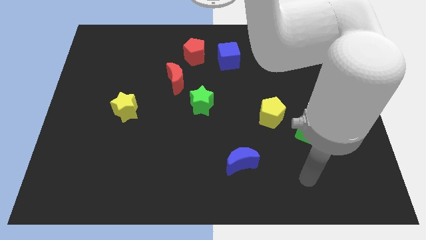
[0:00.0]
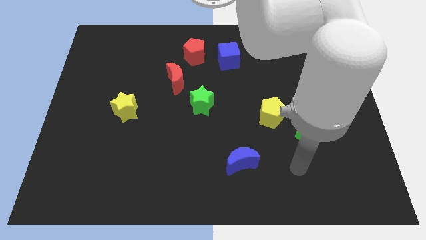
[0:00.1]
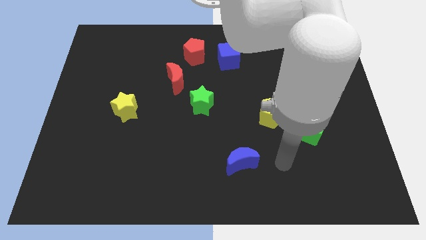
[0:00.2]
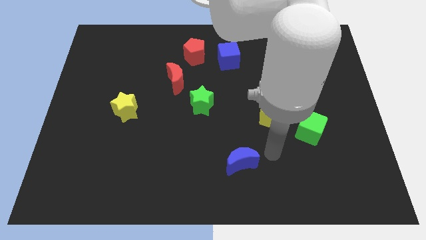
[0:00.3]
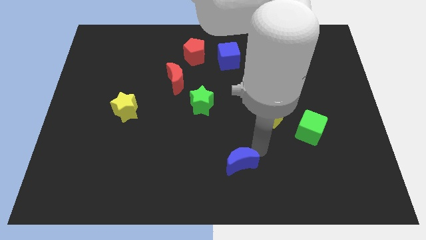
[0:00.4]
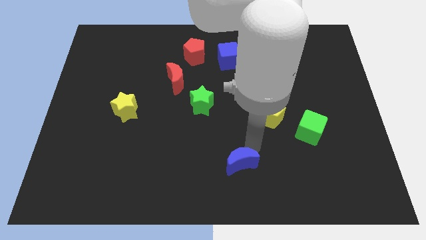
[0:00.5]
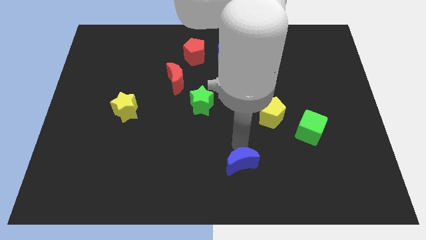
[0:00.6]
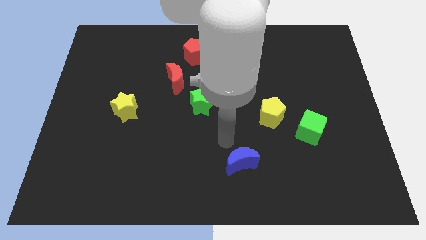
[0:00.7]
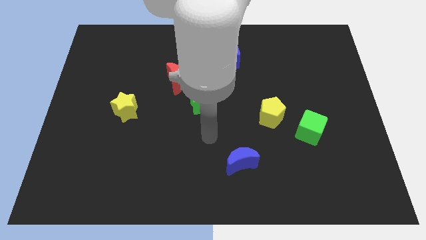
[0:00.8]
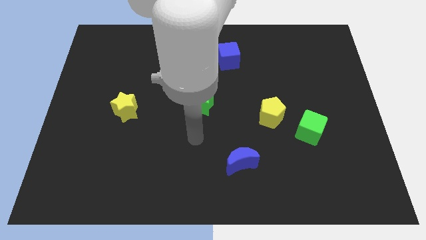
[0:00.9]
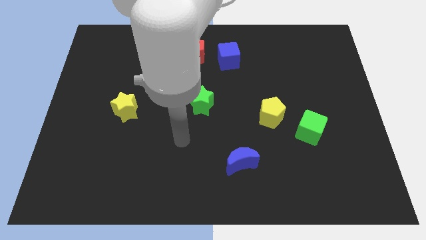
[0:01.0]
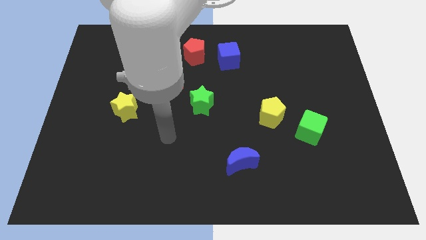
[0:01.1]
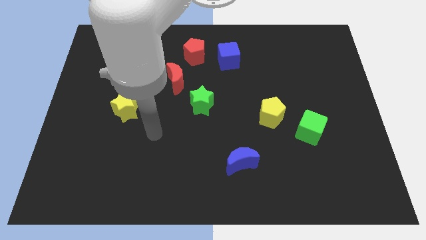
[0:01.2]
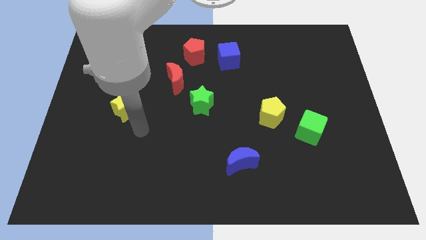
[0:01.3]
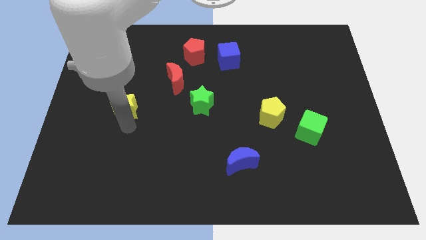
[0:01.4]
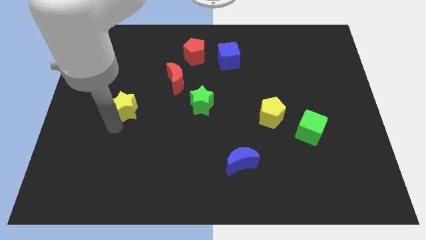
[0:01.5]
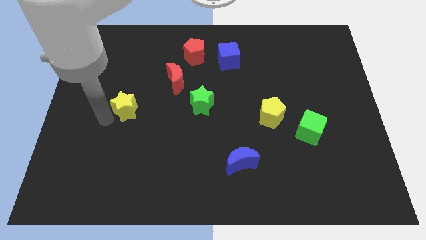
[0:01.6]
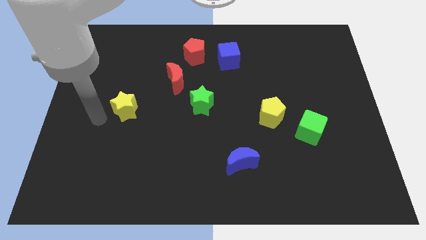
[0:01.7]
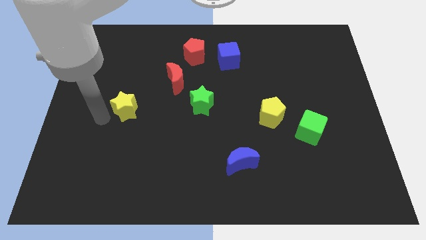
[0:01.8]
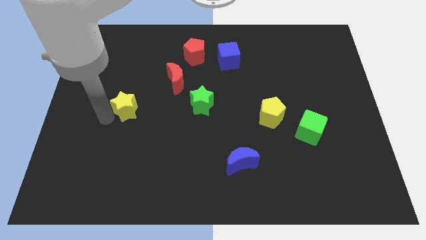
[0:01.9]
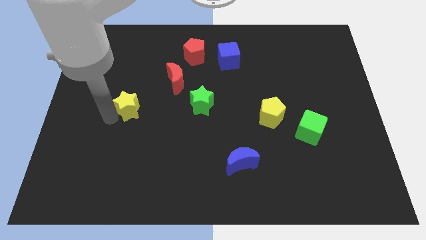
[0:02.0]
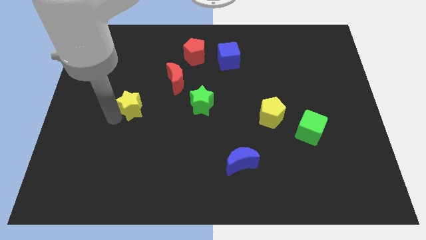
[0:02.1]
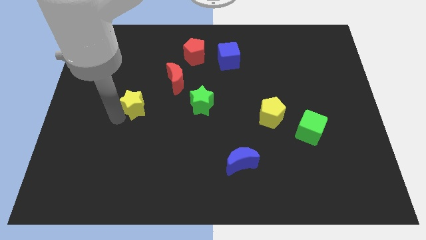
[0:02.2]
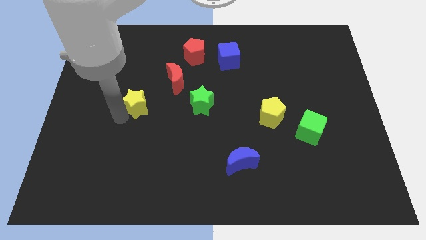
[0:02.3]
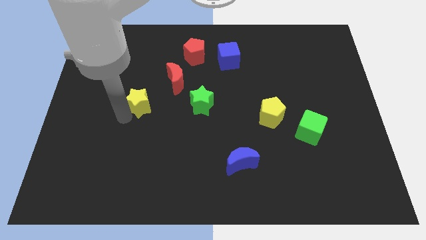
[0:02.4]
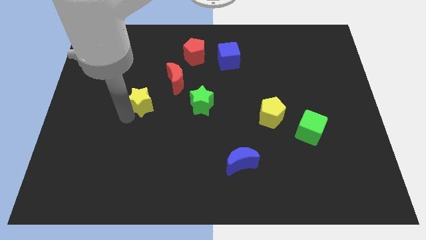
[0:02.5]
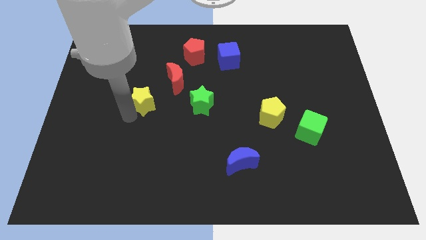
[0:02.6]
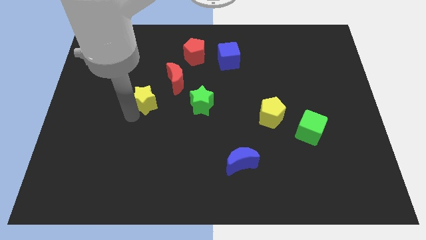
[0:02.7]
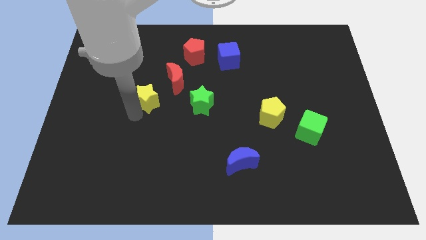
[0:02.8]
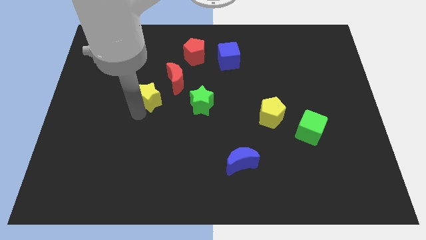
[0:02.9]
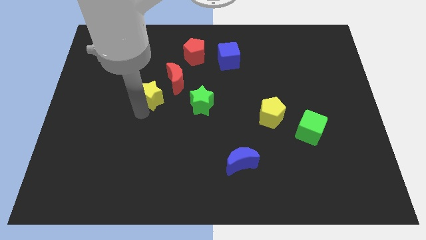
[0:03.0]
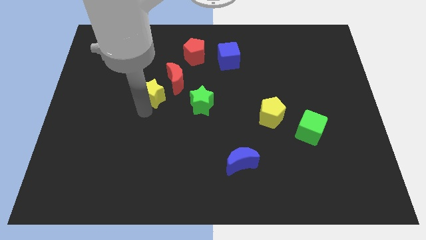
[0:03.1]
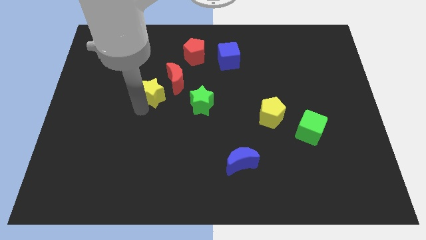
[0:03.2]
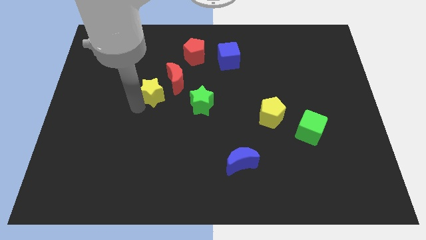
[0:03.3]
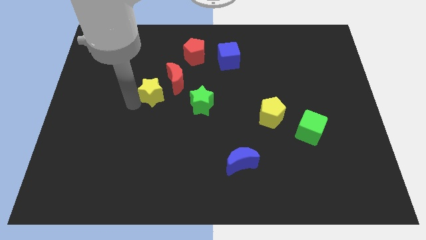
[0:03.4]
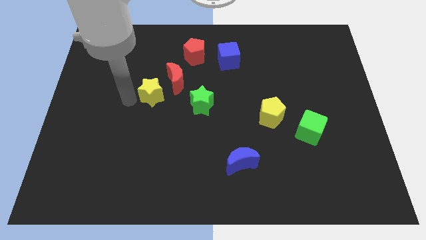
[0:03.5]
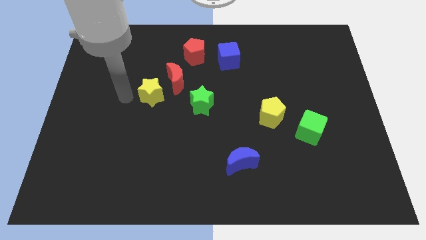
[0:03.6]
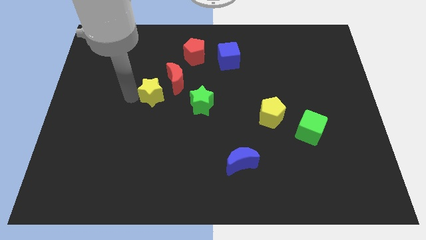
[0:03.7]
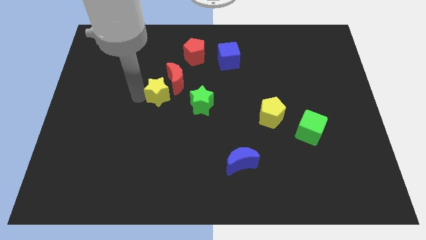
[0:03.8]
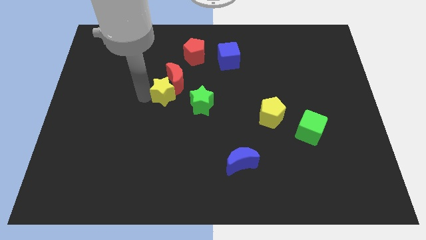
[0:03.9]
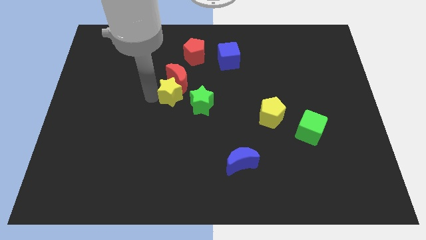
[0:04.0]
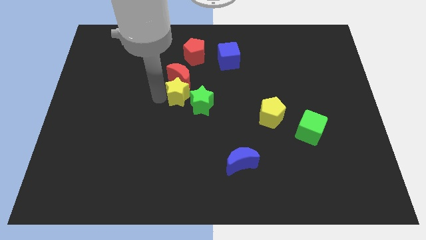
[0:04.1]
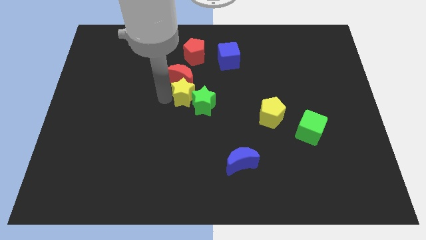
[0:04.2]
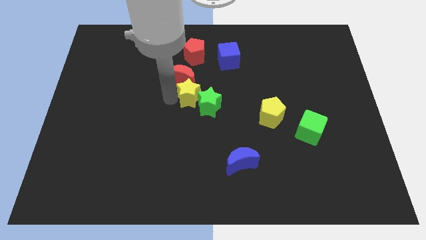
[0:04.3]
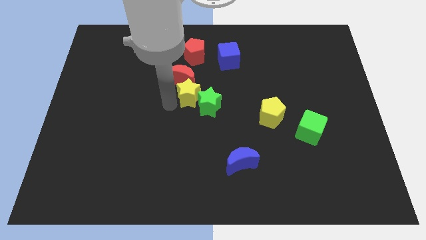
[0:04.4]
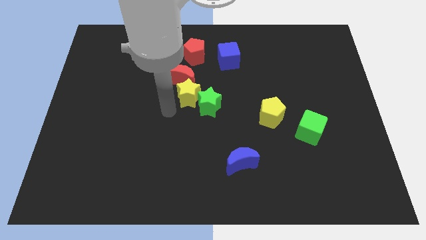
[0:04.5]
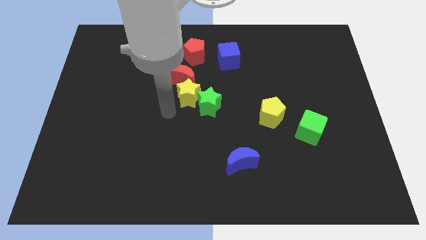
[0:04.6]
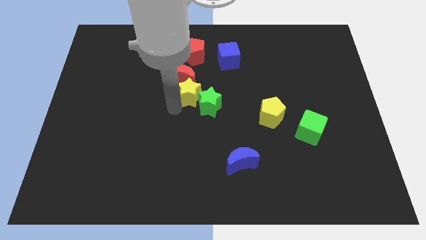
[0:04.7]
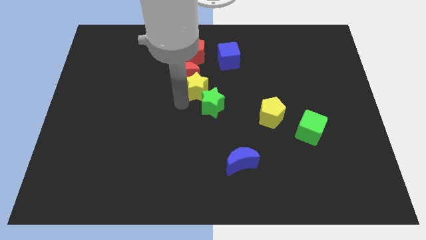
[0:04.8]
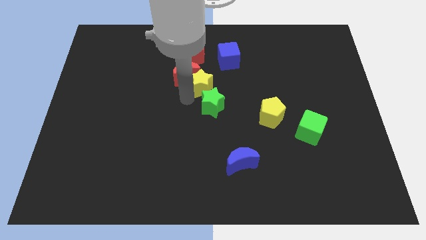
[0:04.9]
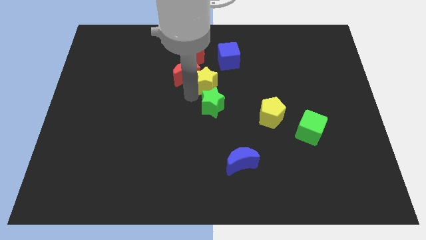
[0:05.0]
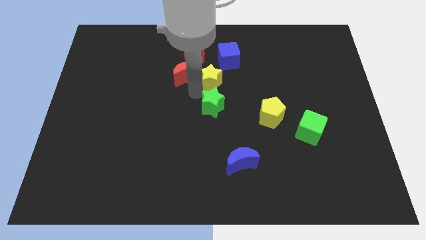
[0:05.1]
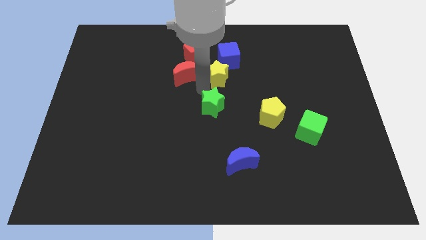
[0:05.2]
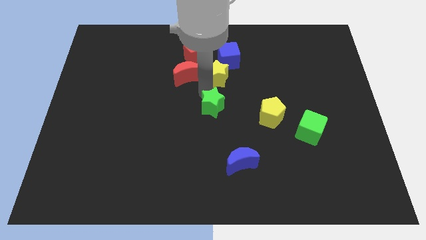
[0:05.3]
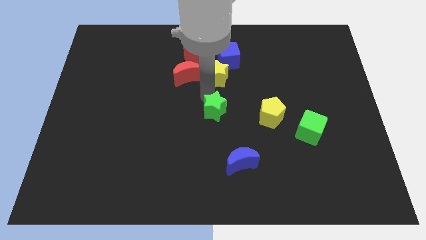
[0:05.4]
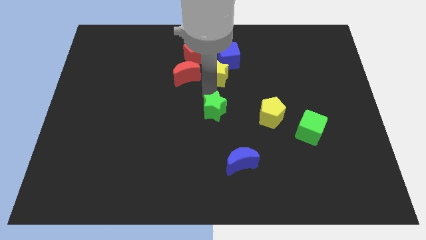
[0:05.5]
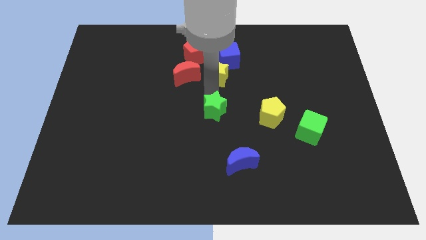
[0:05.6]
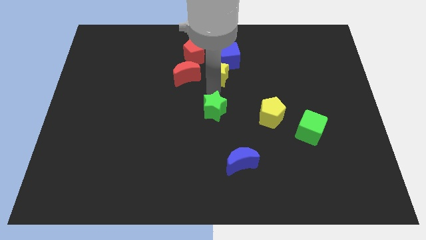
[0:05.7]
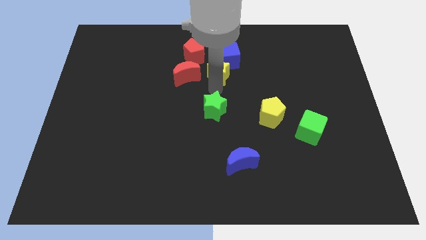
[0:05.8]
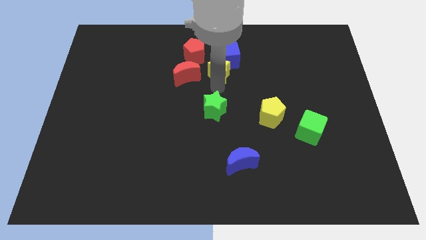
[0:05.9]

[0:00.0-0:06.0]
slide the yellow star towards the blue cube

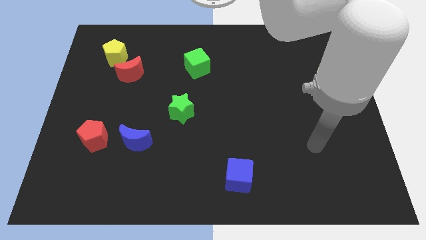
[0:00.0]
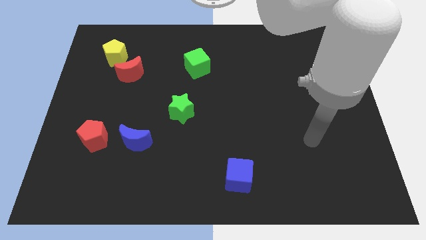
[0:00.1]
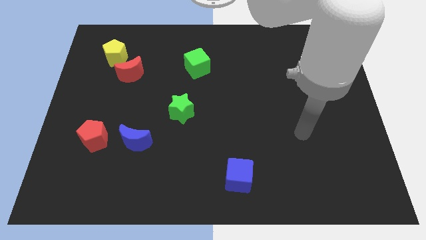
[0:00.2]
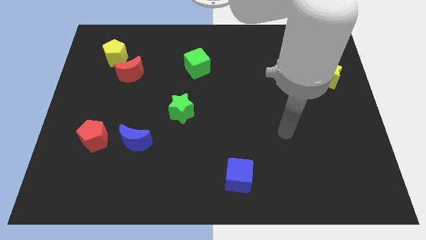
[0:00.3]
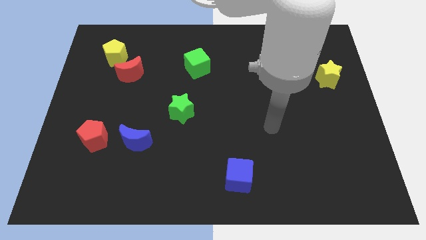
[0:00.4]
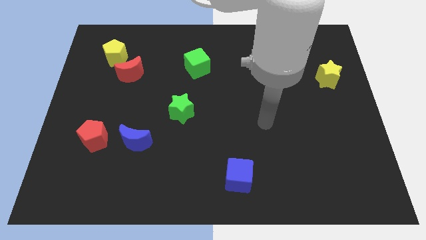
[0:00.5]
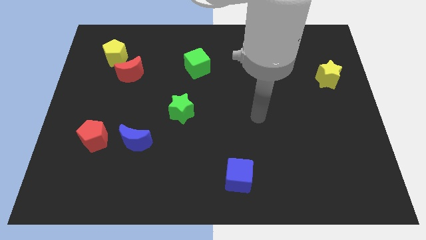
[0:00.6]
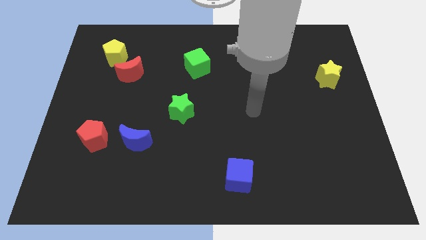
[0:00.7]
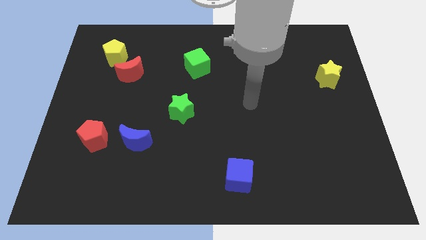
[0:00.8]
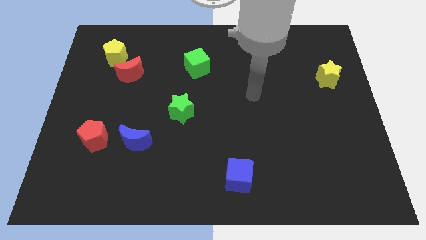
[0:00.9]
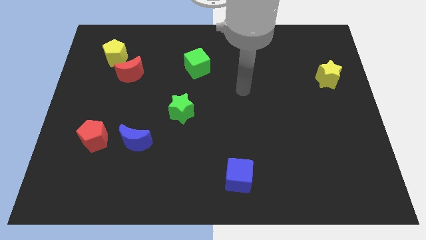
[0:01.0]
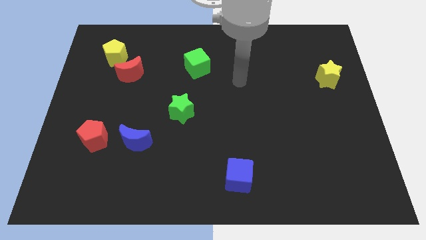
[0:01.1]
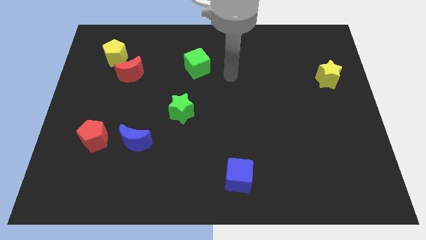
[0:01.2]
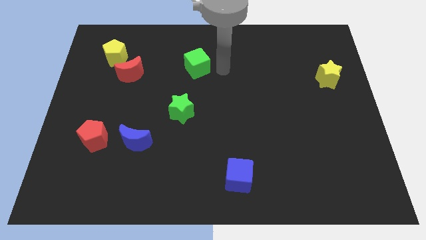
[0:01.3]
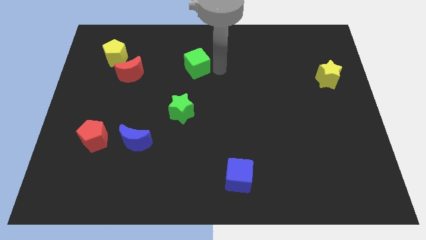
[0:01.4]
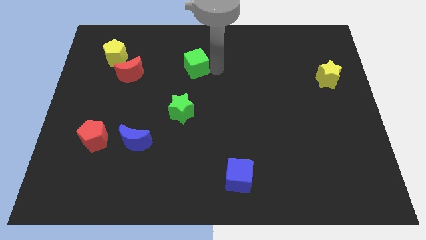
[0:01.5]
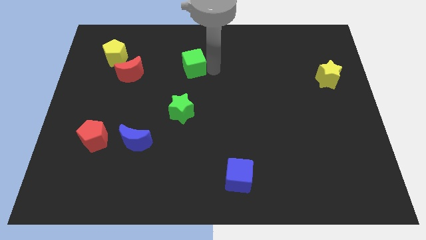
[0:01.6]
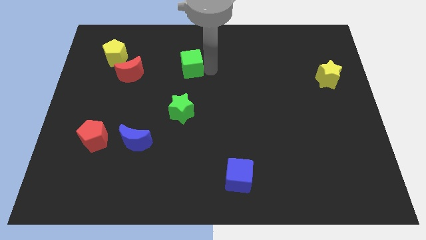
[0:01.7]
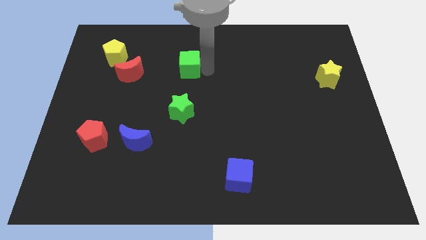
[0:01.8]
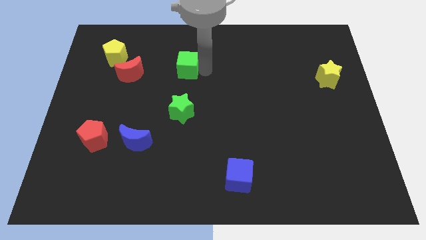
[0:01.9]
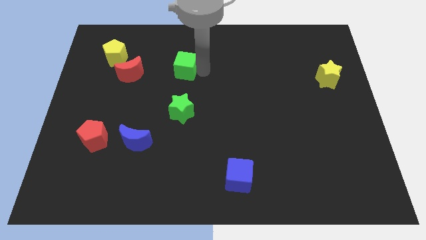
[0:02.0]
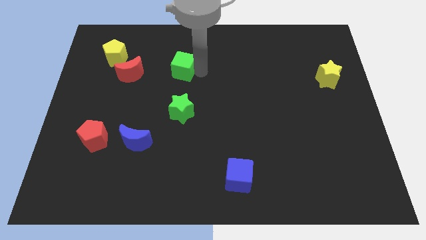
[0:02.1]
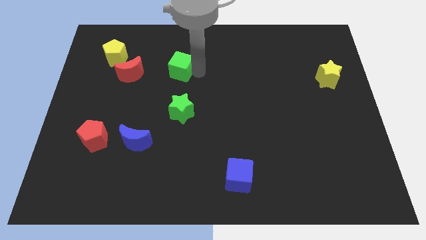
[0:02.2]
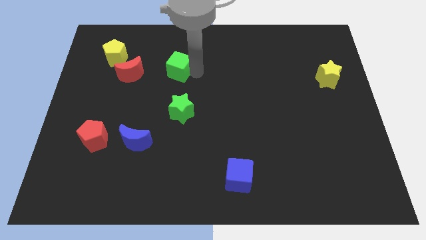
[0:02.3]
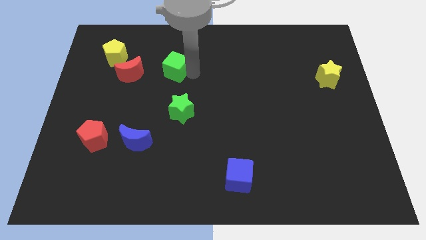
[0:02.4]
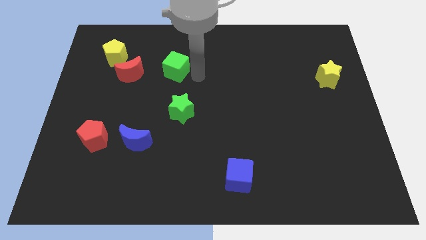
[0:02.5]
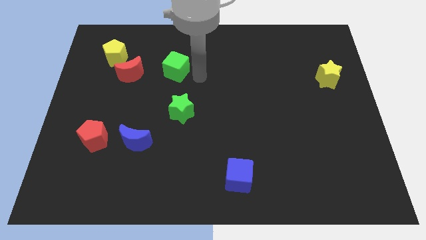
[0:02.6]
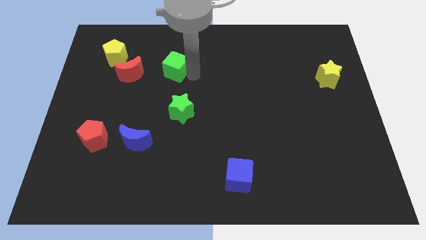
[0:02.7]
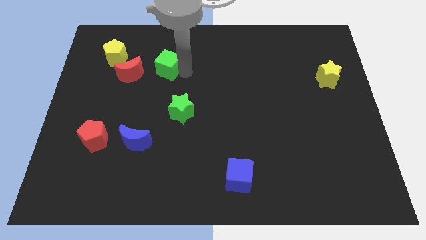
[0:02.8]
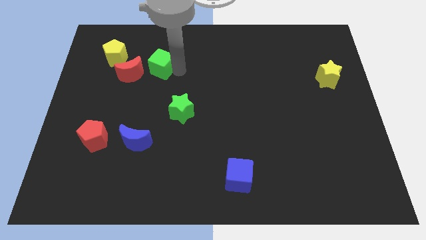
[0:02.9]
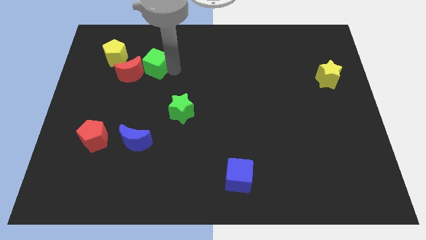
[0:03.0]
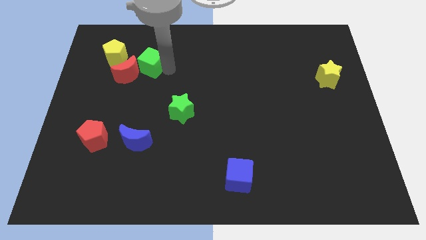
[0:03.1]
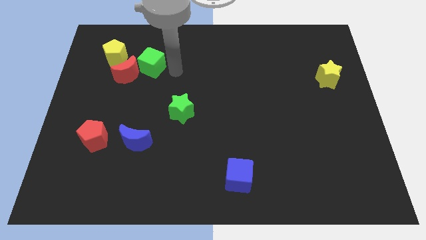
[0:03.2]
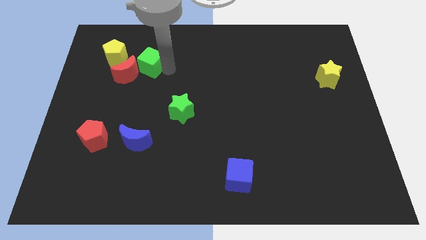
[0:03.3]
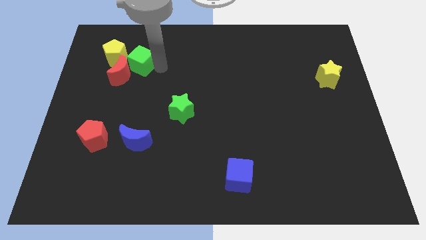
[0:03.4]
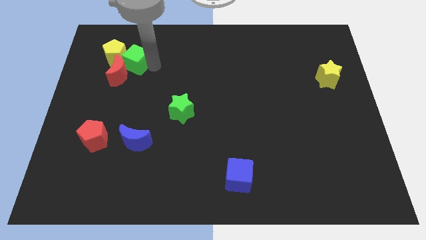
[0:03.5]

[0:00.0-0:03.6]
move the green cube towards the yellow pentagon
